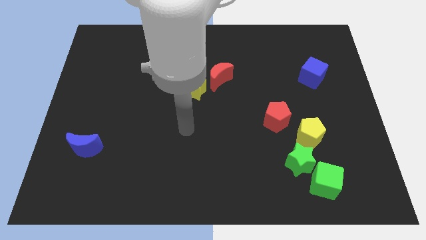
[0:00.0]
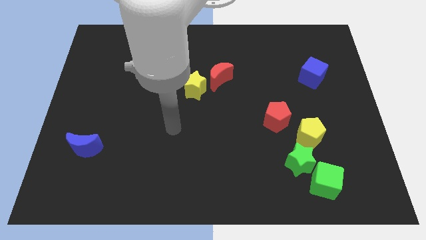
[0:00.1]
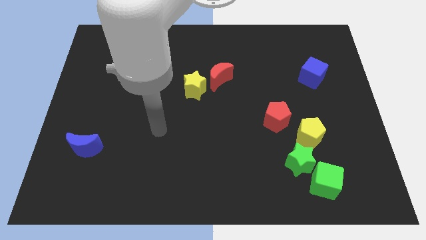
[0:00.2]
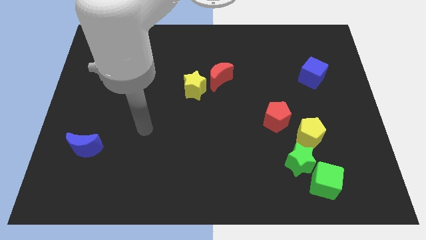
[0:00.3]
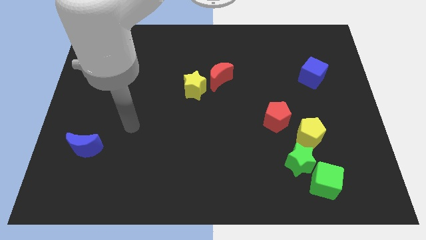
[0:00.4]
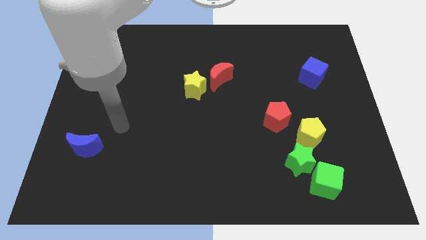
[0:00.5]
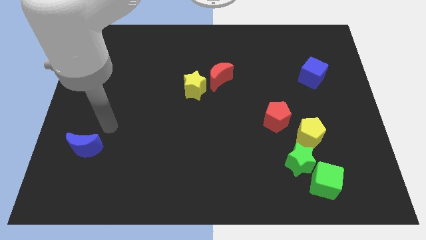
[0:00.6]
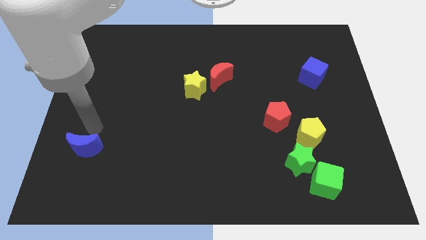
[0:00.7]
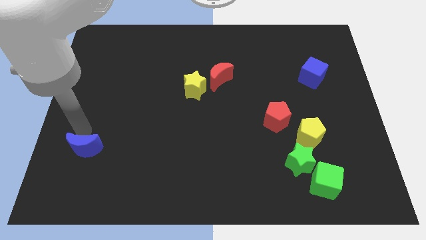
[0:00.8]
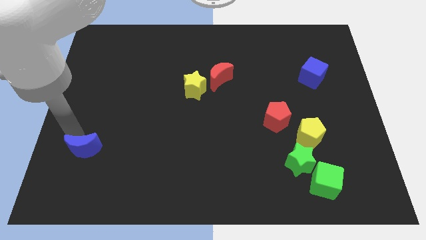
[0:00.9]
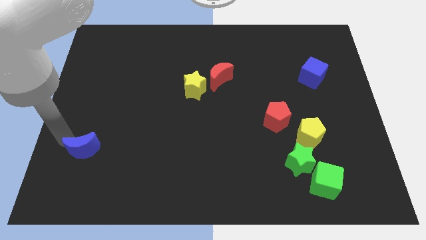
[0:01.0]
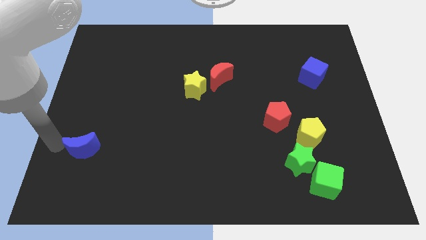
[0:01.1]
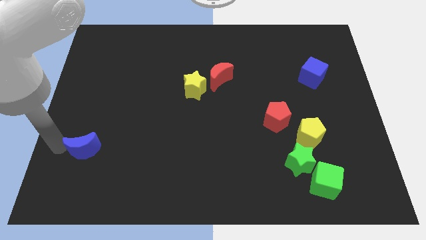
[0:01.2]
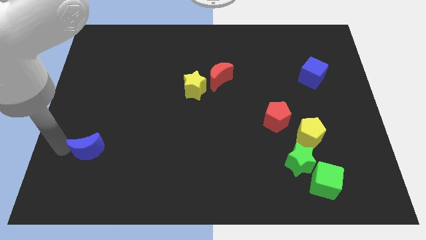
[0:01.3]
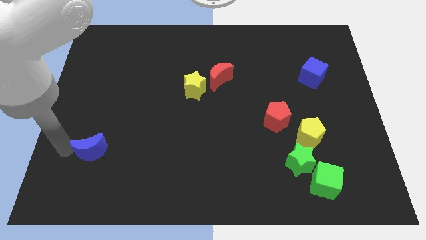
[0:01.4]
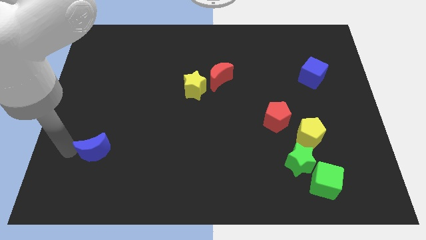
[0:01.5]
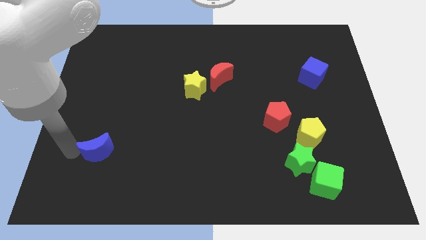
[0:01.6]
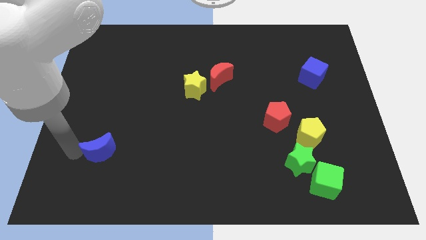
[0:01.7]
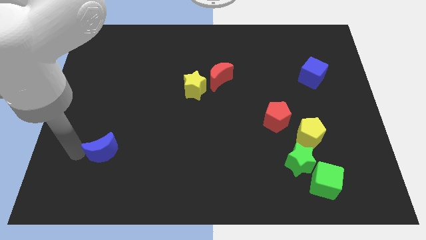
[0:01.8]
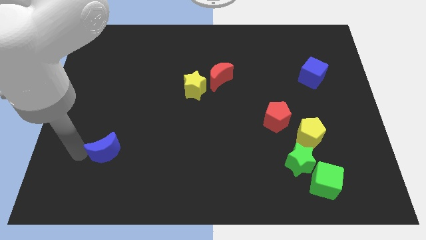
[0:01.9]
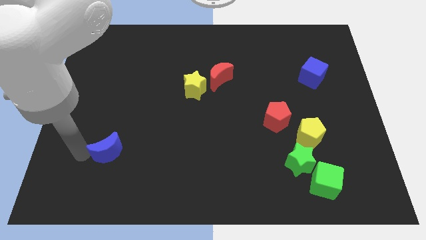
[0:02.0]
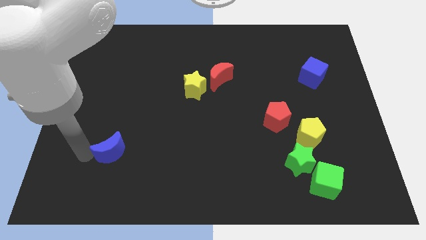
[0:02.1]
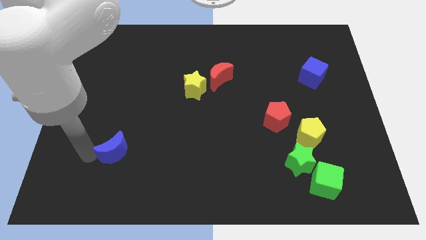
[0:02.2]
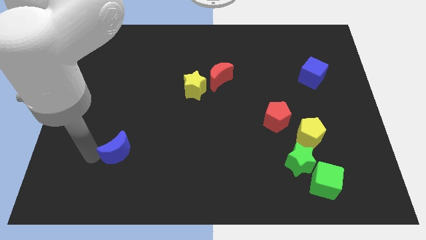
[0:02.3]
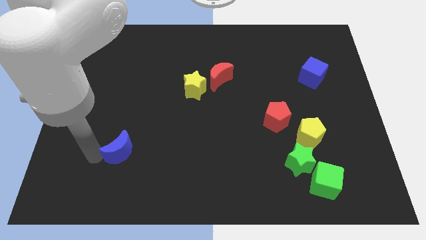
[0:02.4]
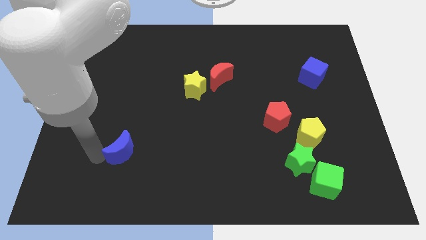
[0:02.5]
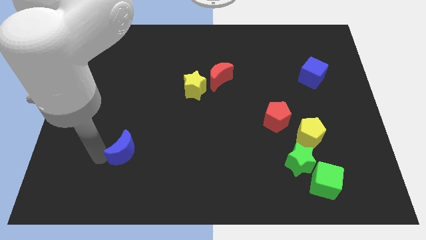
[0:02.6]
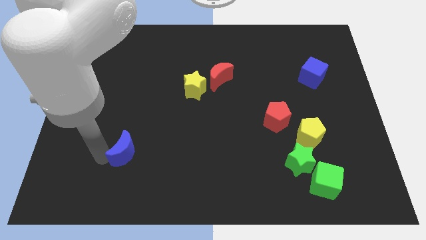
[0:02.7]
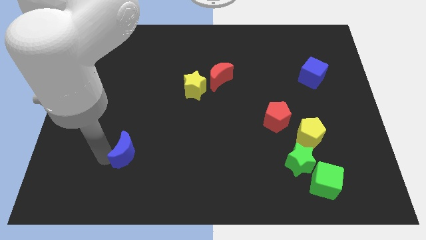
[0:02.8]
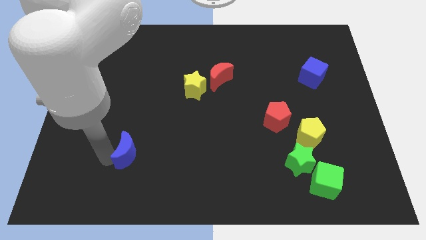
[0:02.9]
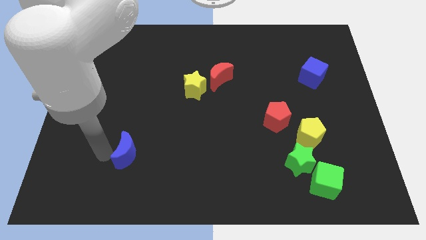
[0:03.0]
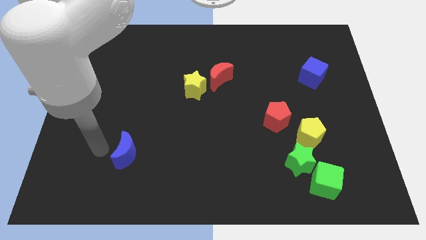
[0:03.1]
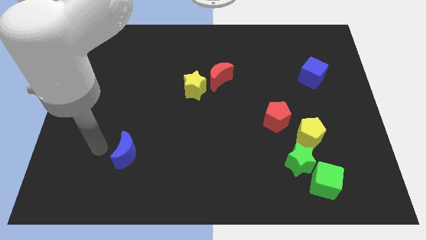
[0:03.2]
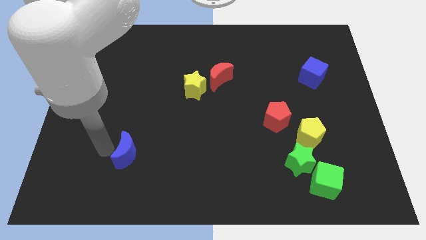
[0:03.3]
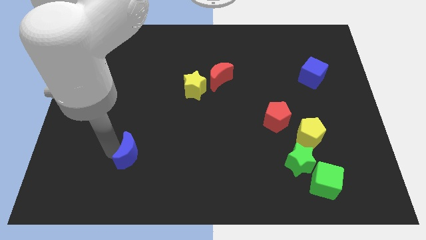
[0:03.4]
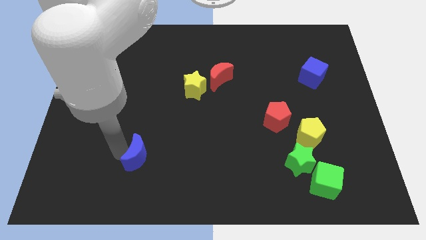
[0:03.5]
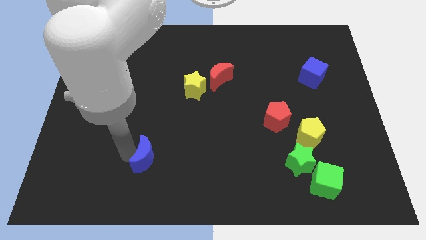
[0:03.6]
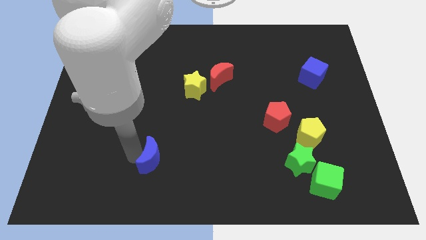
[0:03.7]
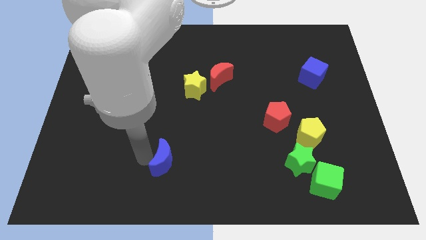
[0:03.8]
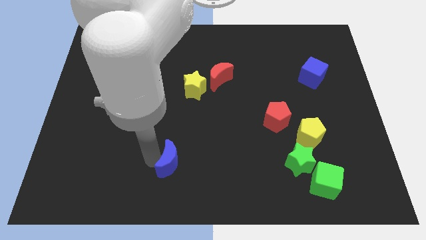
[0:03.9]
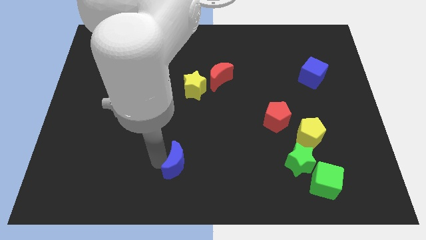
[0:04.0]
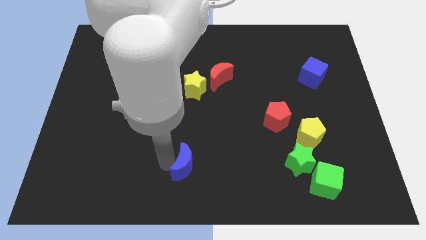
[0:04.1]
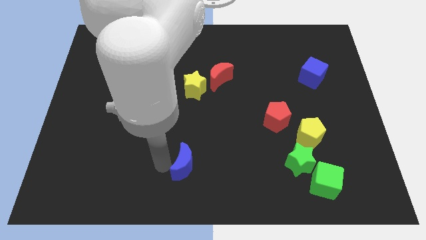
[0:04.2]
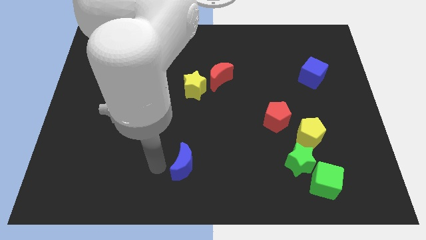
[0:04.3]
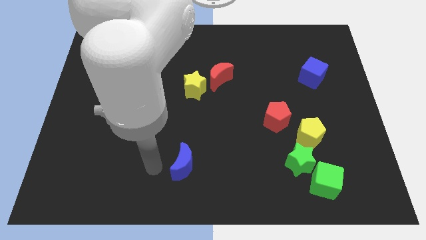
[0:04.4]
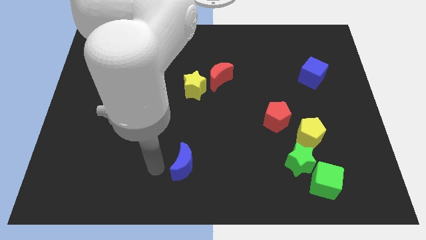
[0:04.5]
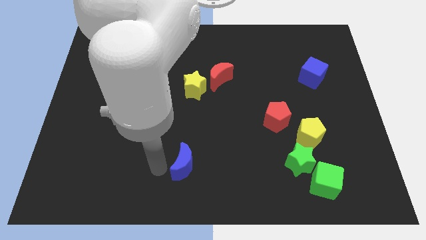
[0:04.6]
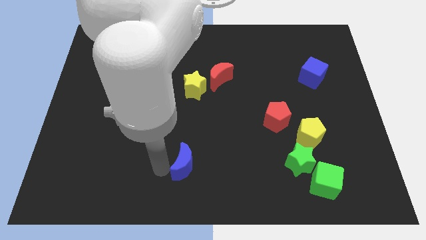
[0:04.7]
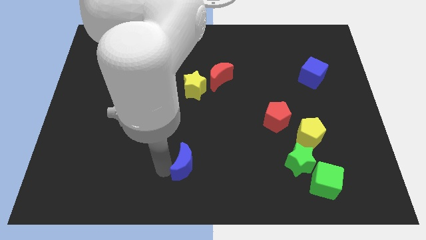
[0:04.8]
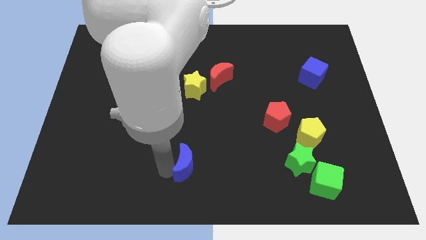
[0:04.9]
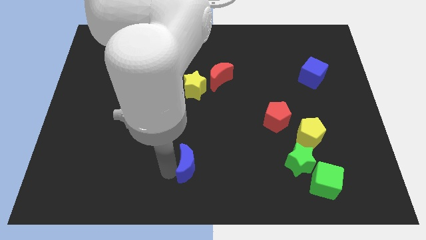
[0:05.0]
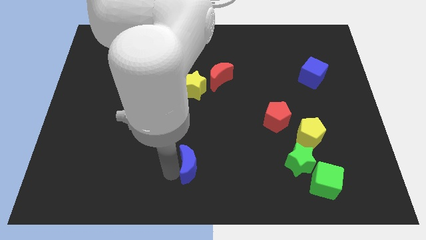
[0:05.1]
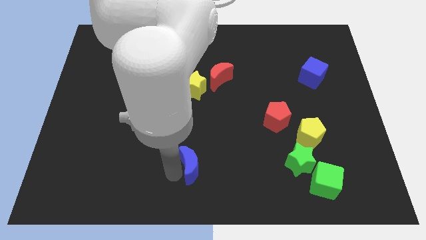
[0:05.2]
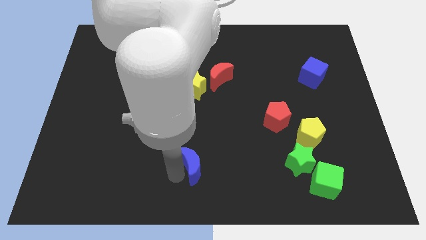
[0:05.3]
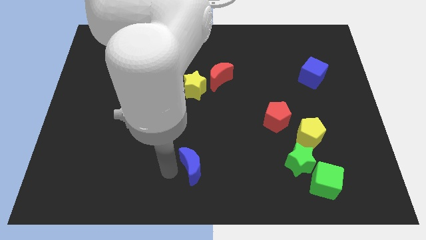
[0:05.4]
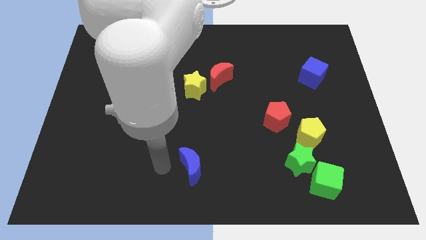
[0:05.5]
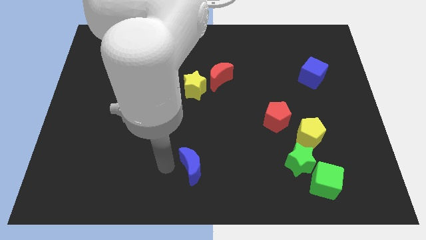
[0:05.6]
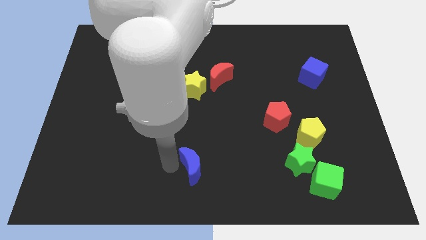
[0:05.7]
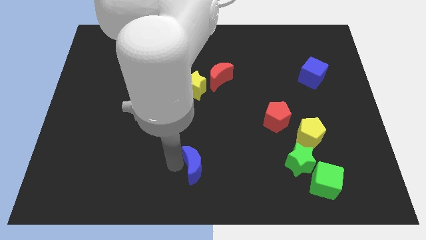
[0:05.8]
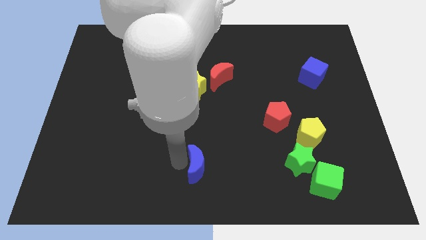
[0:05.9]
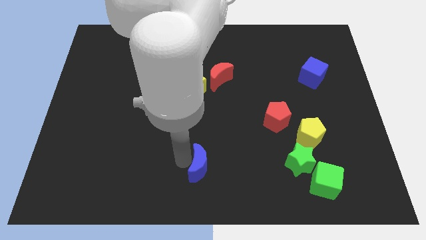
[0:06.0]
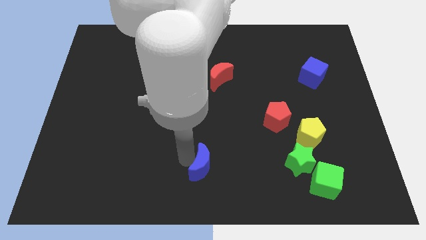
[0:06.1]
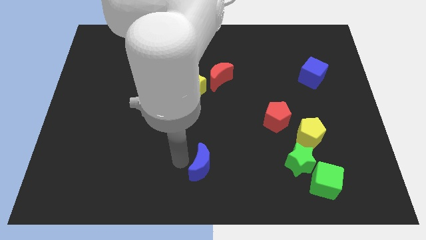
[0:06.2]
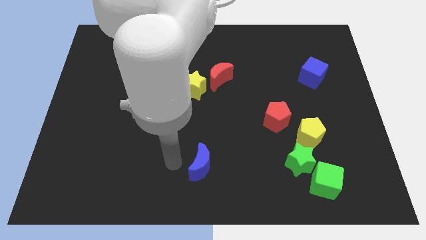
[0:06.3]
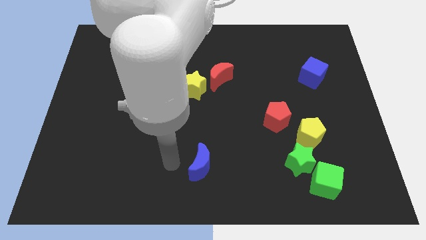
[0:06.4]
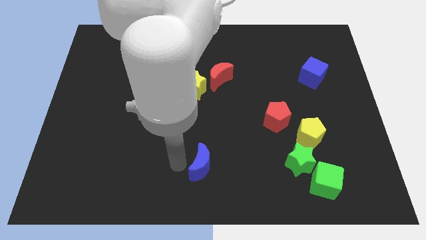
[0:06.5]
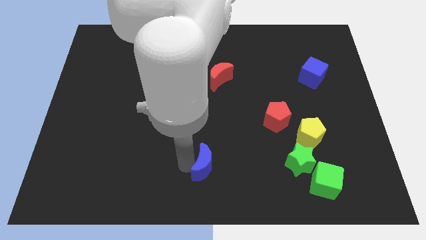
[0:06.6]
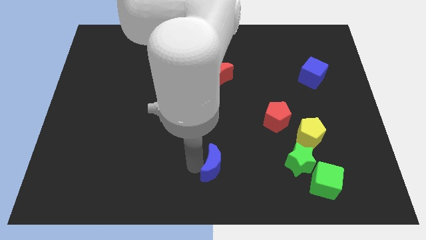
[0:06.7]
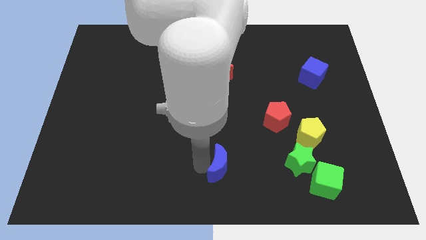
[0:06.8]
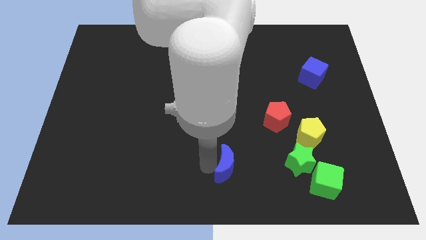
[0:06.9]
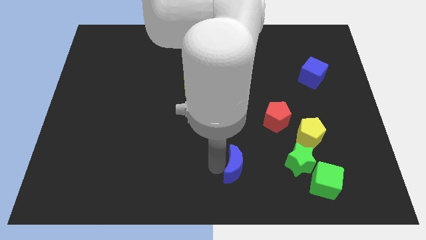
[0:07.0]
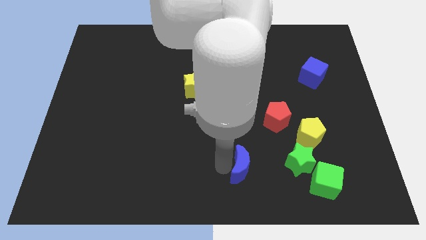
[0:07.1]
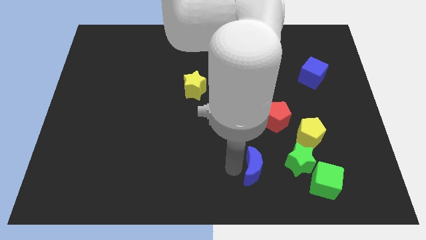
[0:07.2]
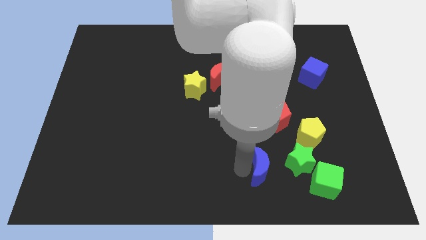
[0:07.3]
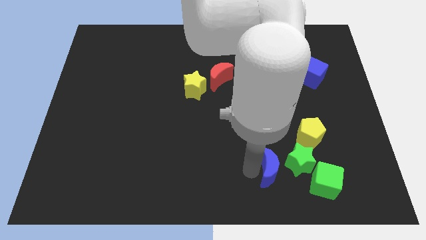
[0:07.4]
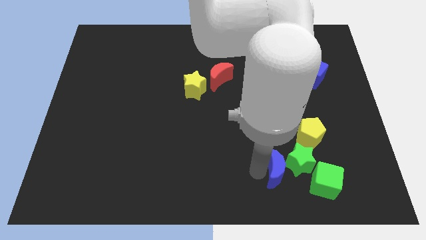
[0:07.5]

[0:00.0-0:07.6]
push the blue moon next to the green star
